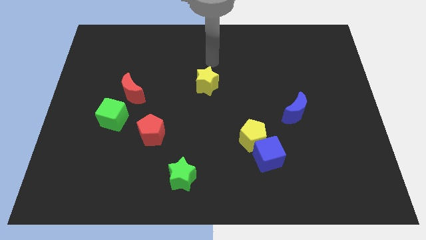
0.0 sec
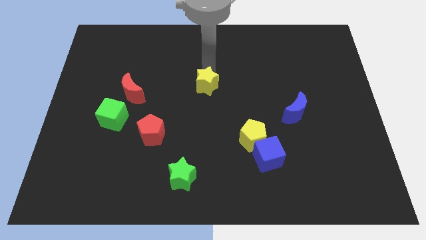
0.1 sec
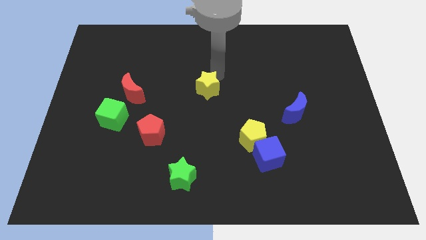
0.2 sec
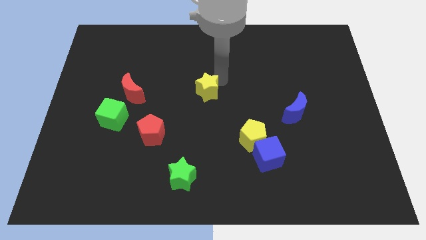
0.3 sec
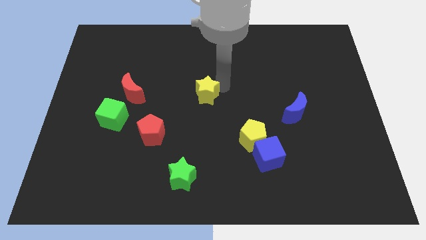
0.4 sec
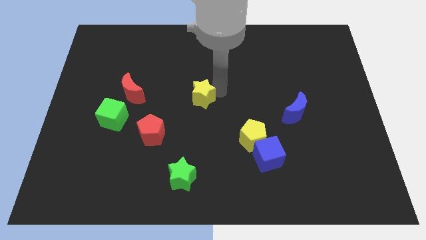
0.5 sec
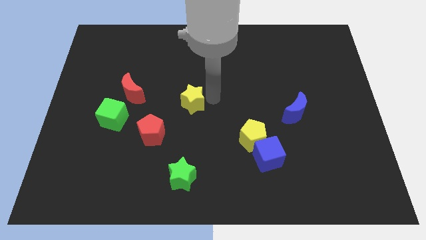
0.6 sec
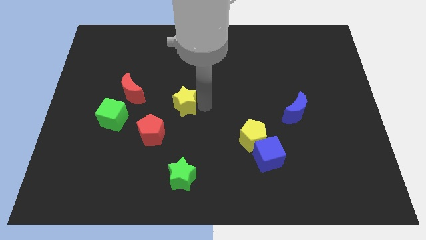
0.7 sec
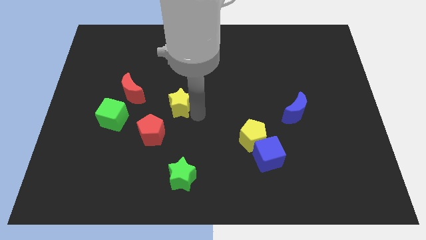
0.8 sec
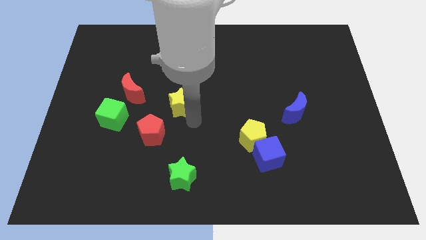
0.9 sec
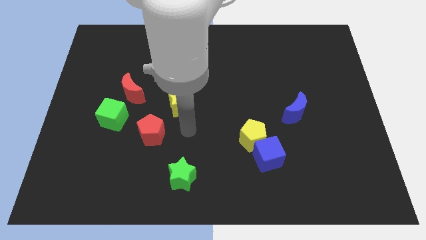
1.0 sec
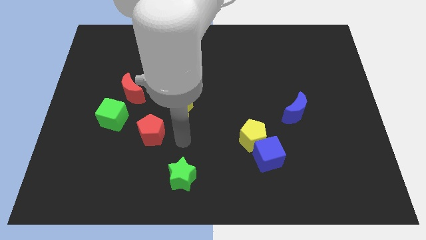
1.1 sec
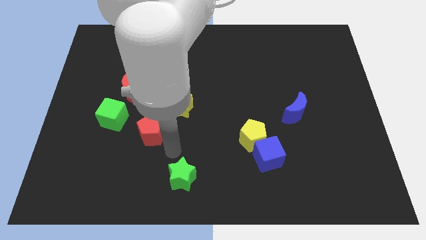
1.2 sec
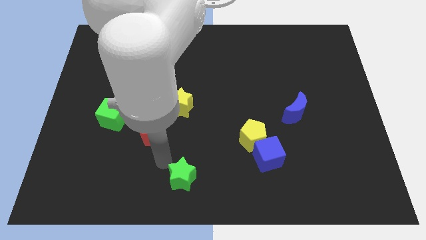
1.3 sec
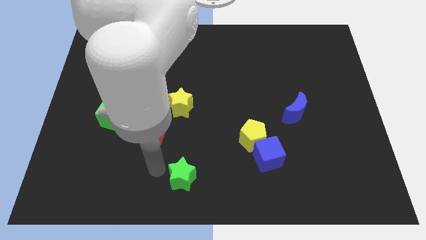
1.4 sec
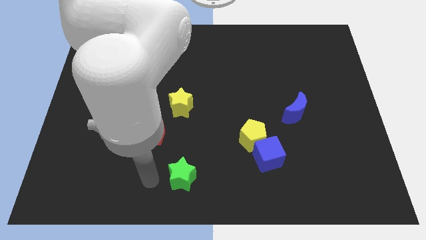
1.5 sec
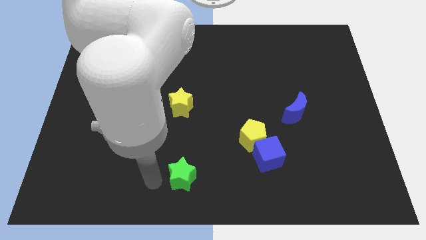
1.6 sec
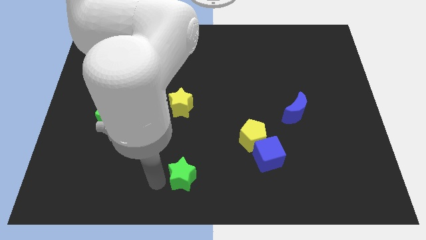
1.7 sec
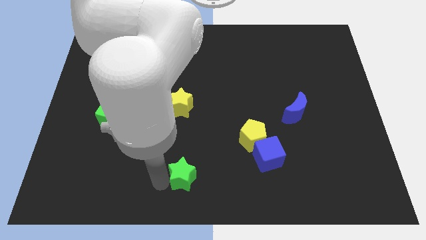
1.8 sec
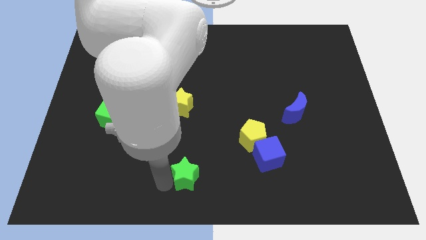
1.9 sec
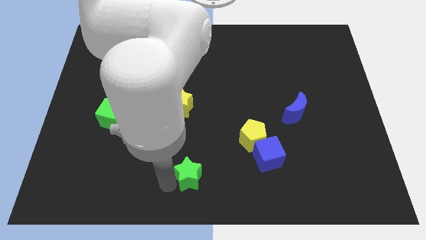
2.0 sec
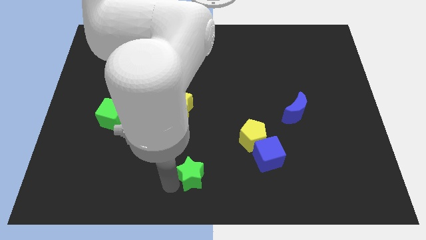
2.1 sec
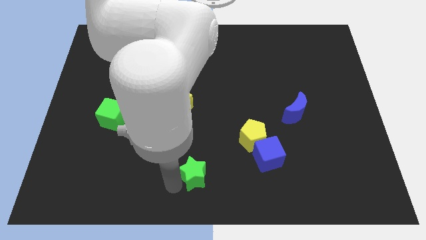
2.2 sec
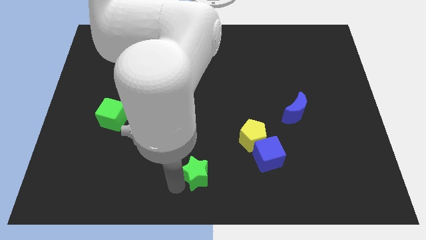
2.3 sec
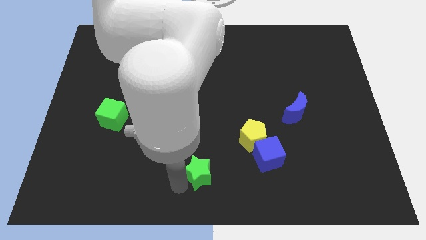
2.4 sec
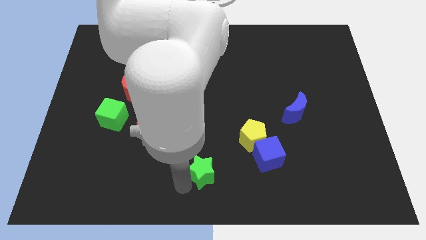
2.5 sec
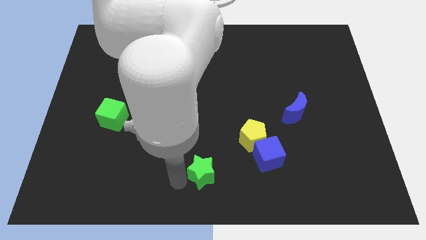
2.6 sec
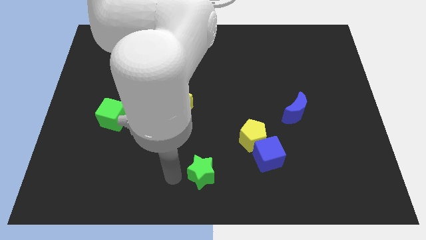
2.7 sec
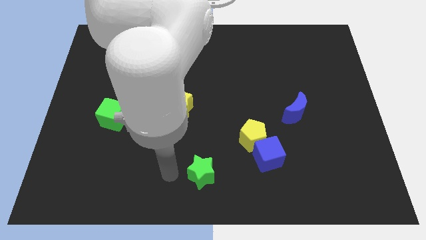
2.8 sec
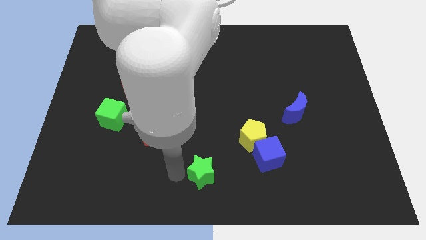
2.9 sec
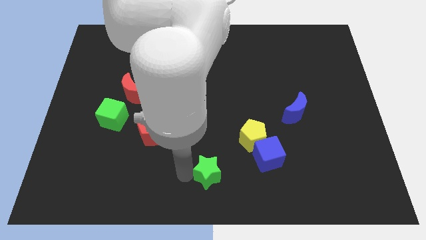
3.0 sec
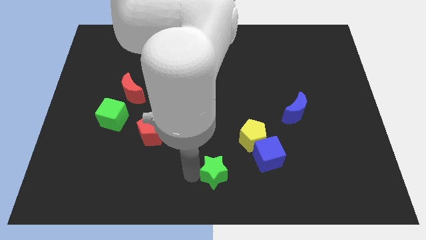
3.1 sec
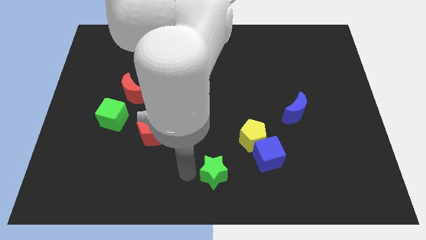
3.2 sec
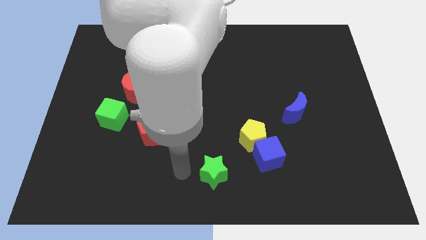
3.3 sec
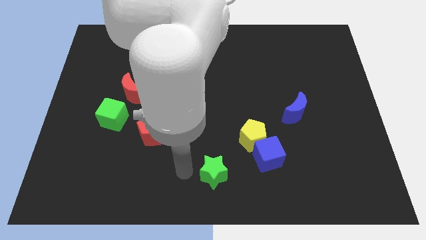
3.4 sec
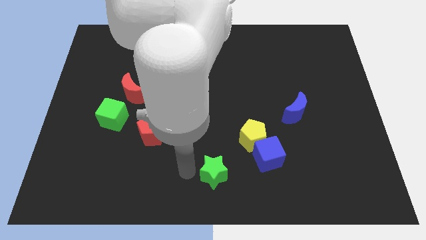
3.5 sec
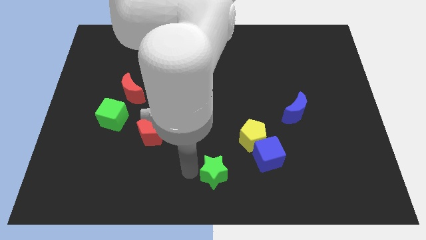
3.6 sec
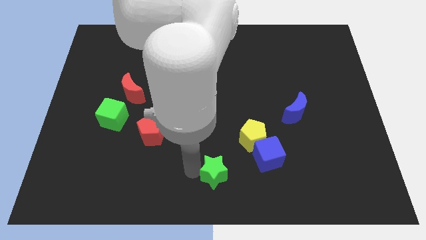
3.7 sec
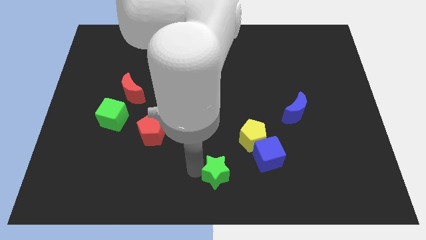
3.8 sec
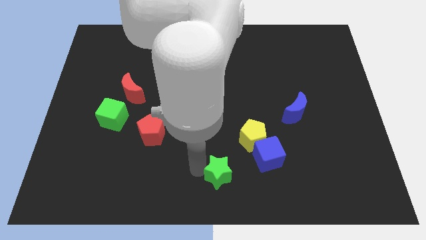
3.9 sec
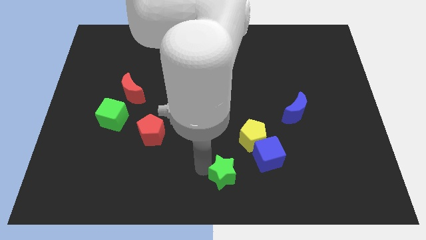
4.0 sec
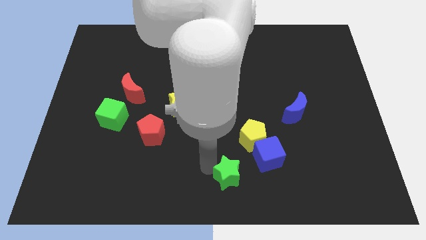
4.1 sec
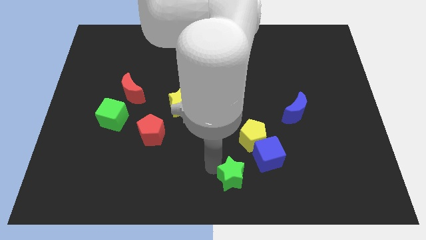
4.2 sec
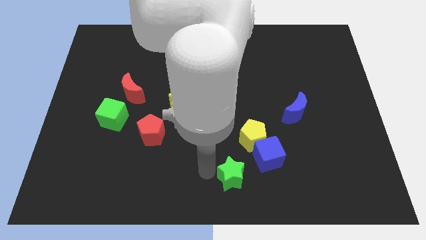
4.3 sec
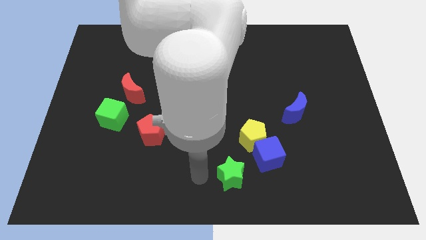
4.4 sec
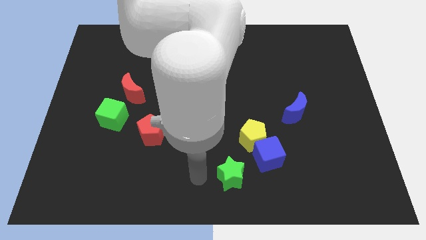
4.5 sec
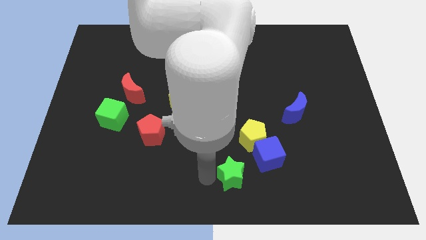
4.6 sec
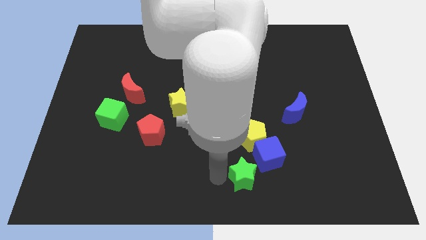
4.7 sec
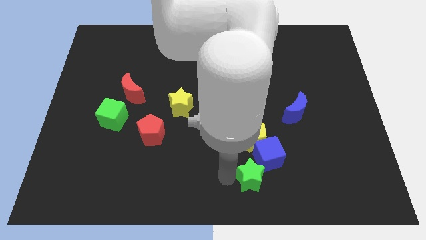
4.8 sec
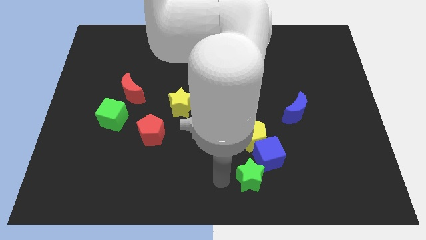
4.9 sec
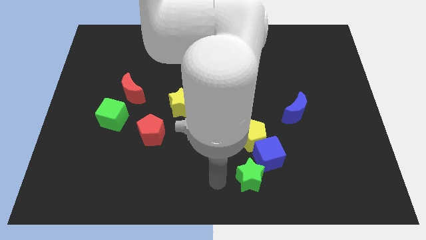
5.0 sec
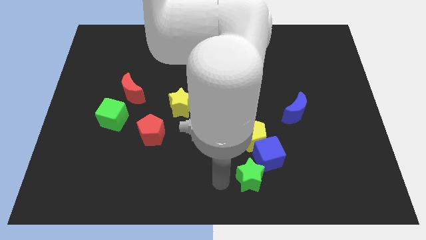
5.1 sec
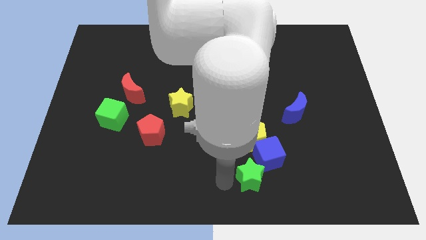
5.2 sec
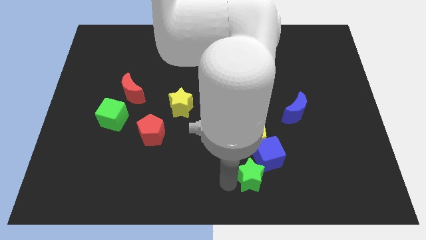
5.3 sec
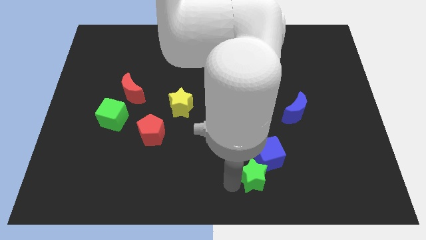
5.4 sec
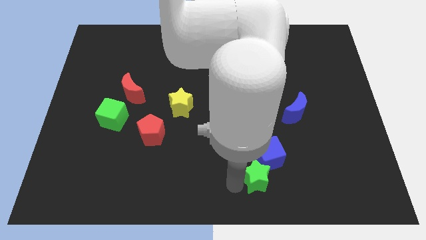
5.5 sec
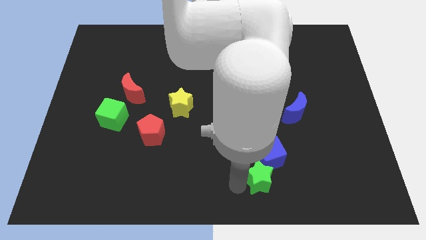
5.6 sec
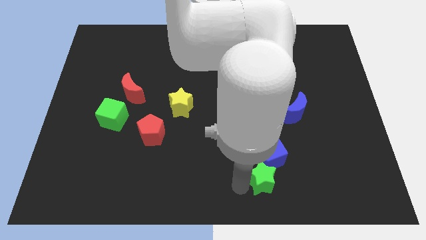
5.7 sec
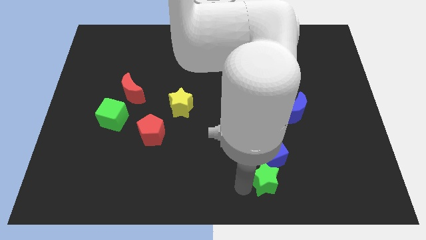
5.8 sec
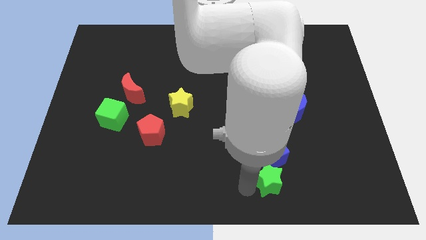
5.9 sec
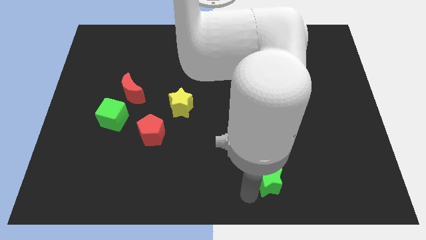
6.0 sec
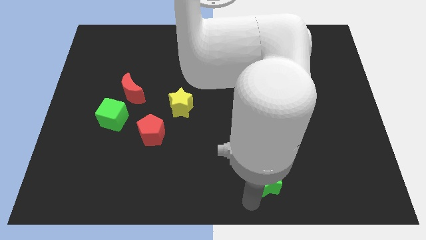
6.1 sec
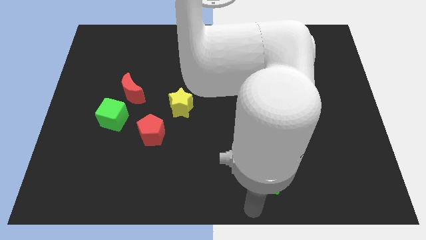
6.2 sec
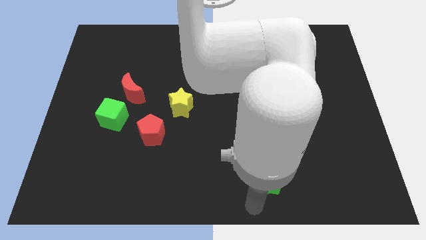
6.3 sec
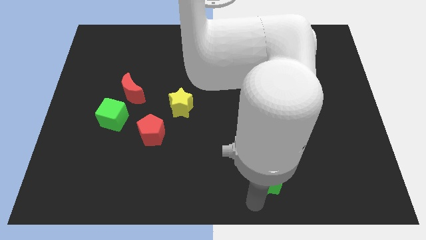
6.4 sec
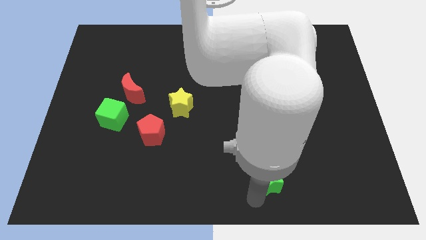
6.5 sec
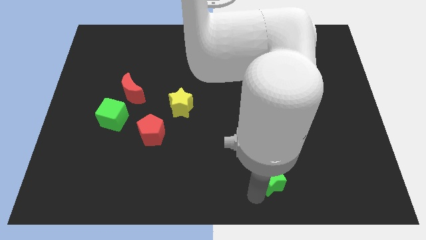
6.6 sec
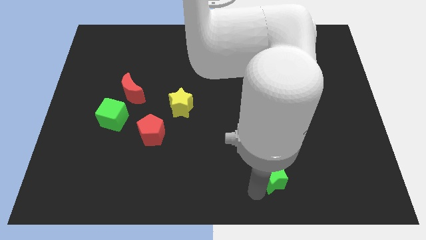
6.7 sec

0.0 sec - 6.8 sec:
put the green star to the bottom right of the yellow pentagon

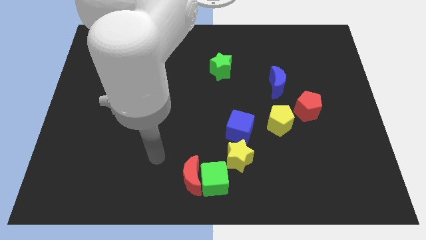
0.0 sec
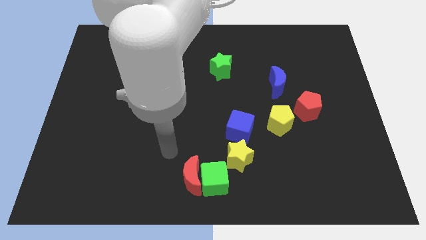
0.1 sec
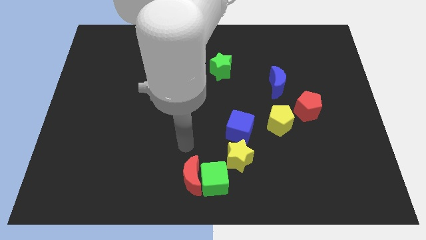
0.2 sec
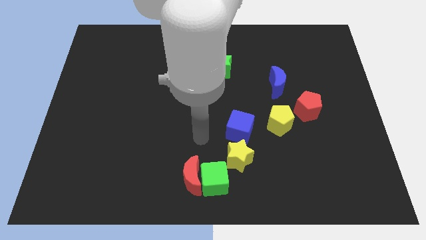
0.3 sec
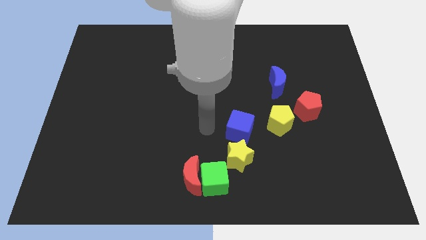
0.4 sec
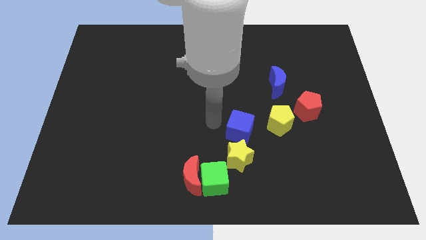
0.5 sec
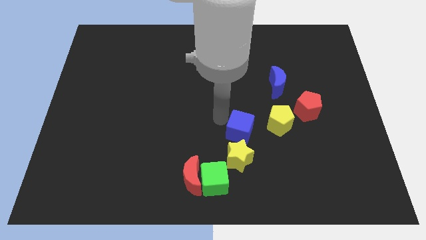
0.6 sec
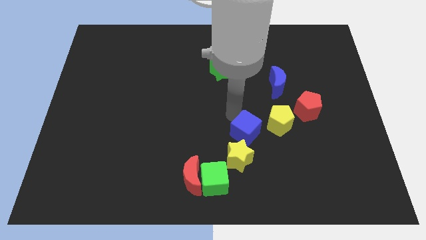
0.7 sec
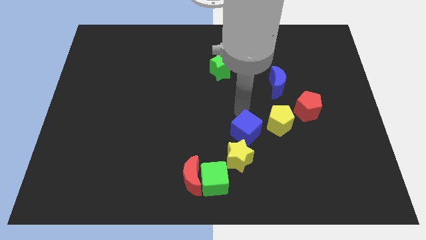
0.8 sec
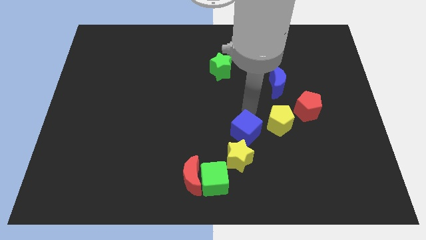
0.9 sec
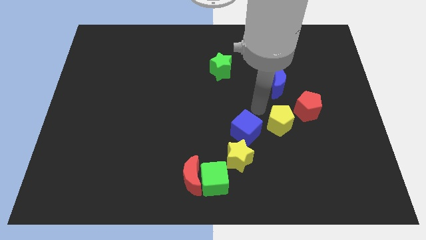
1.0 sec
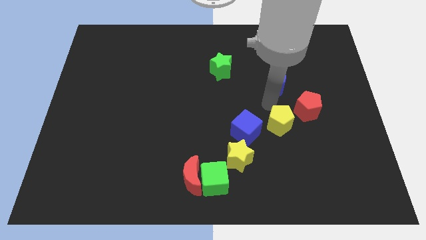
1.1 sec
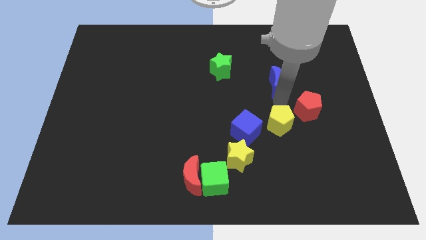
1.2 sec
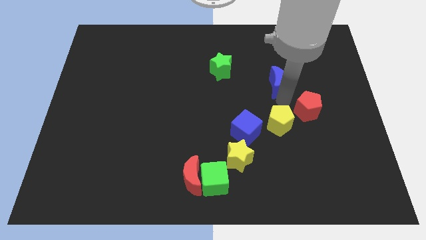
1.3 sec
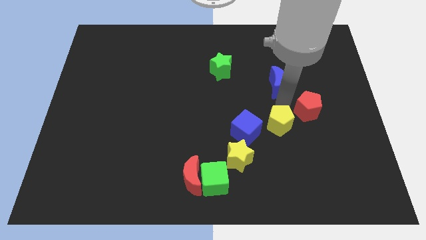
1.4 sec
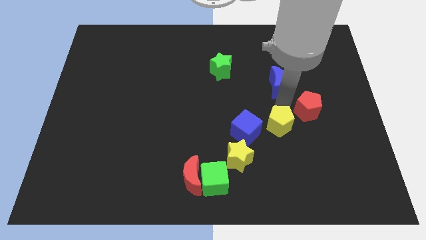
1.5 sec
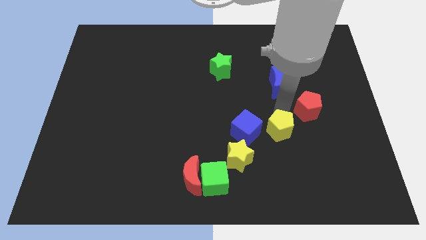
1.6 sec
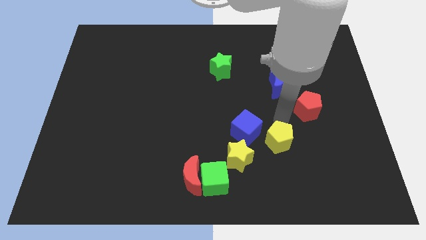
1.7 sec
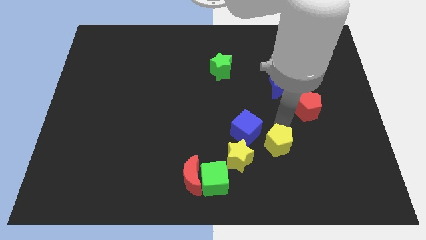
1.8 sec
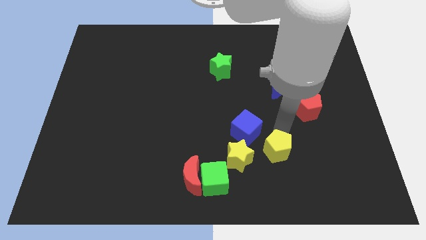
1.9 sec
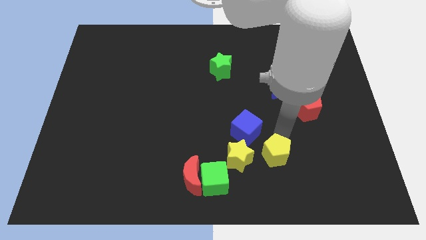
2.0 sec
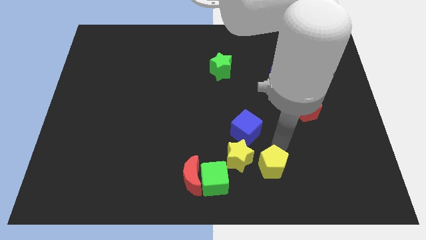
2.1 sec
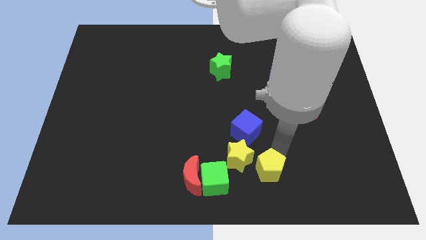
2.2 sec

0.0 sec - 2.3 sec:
slide the yellow pentagon to the right of the red moon
